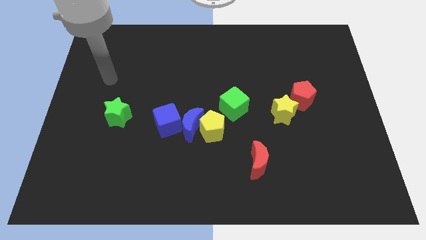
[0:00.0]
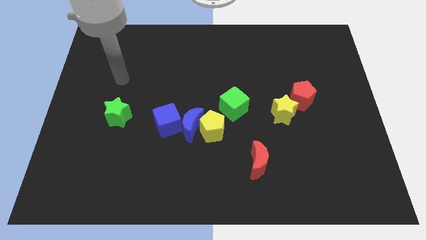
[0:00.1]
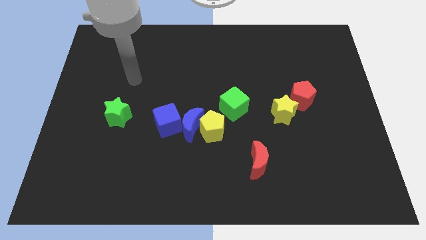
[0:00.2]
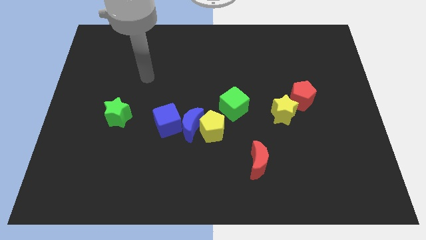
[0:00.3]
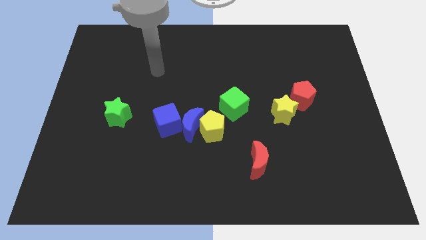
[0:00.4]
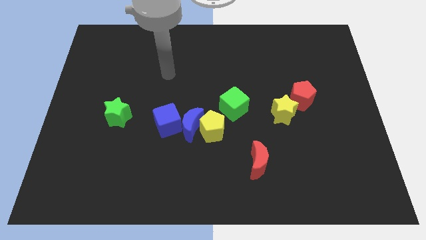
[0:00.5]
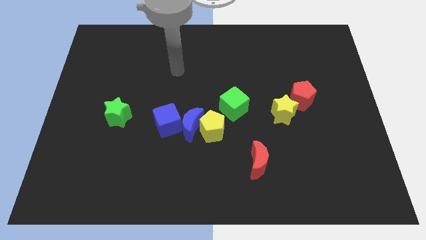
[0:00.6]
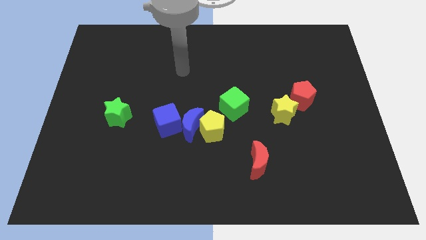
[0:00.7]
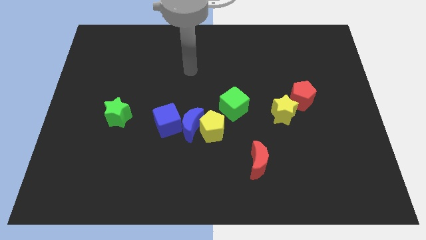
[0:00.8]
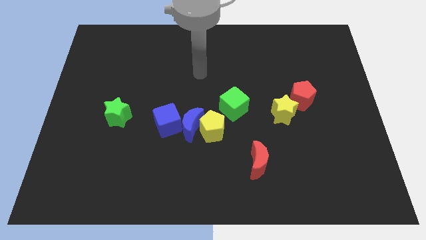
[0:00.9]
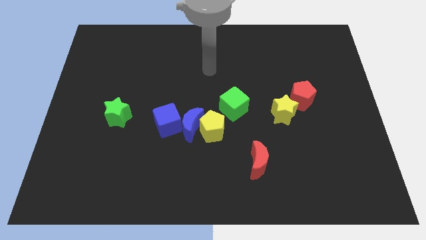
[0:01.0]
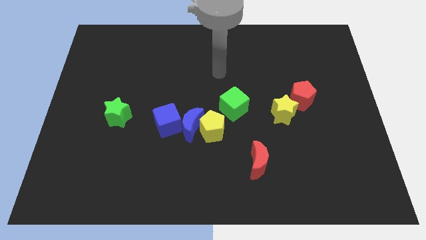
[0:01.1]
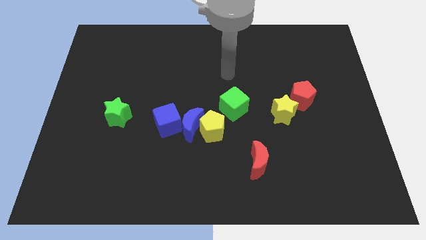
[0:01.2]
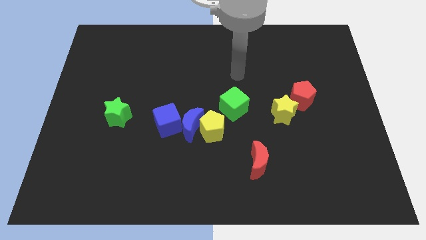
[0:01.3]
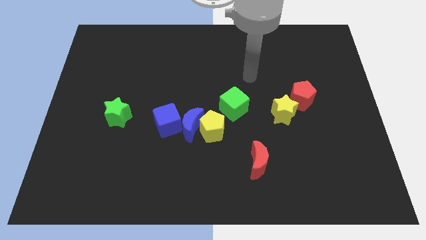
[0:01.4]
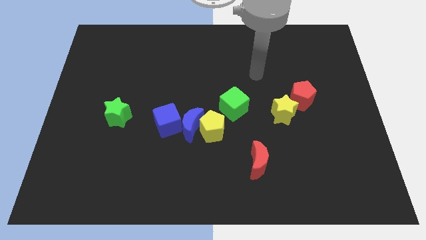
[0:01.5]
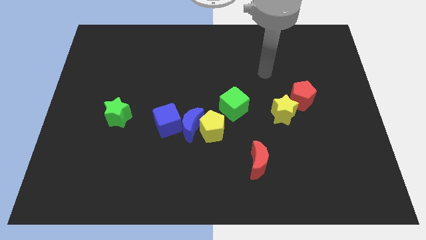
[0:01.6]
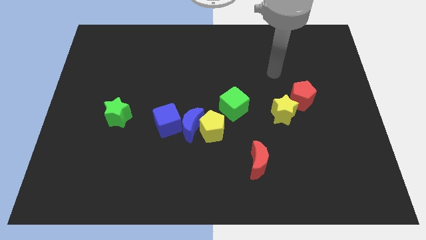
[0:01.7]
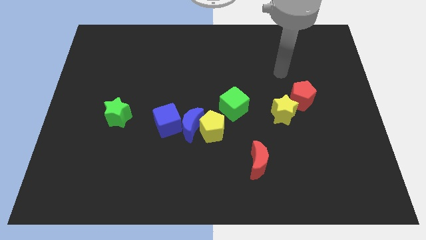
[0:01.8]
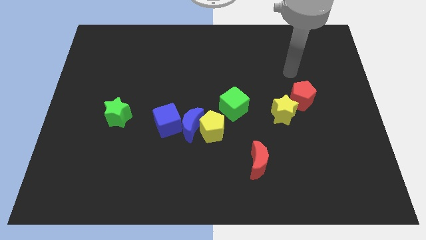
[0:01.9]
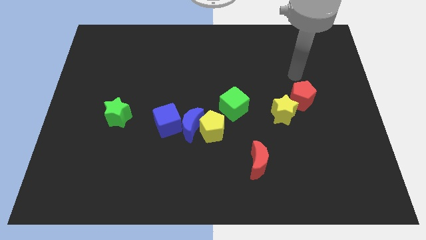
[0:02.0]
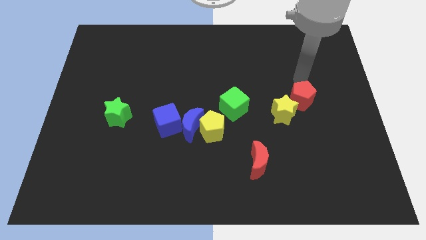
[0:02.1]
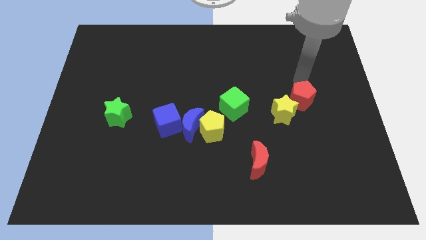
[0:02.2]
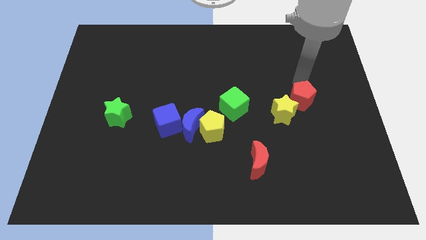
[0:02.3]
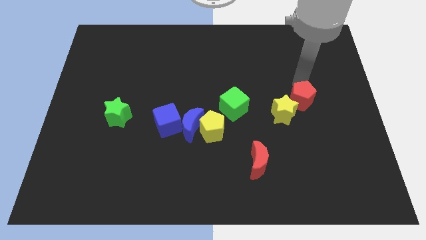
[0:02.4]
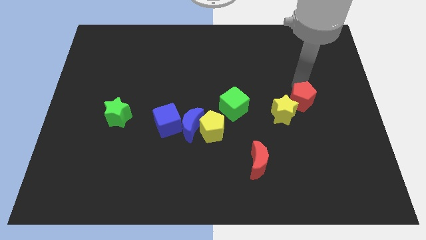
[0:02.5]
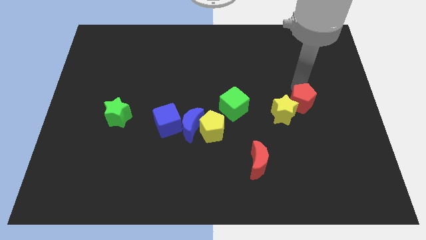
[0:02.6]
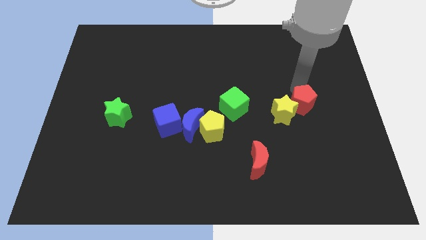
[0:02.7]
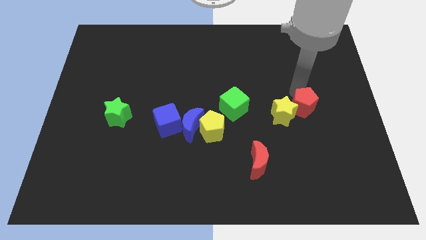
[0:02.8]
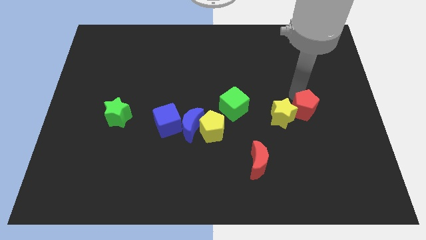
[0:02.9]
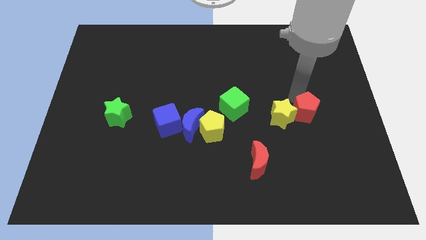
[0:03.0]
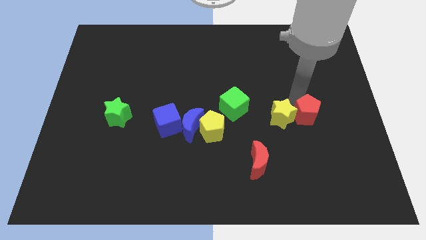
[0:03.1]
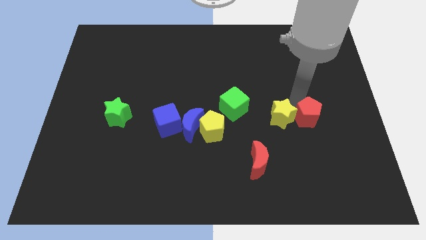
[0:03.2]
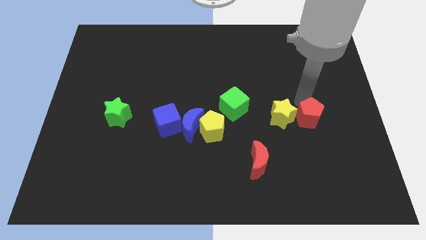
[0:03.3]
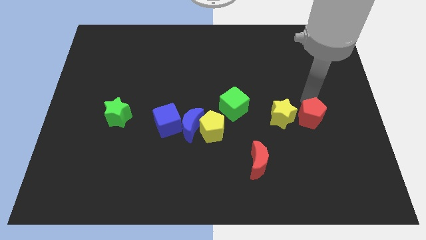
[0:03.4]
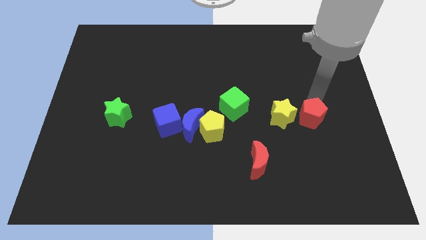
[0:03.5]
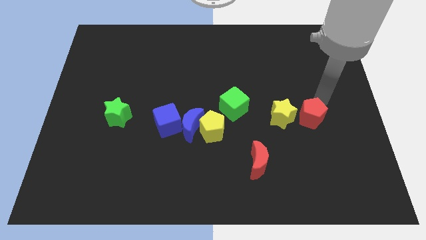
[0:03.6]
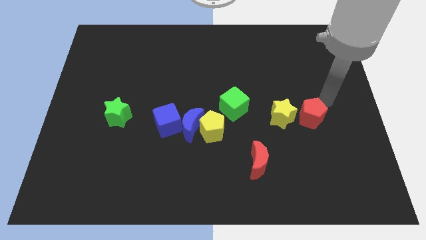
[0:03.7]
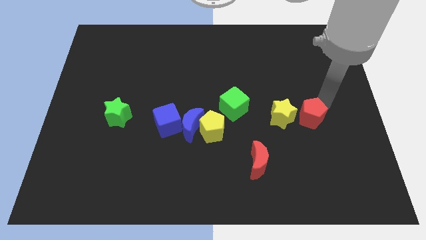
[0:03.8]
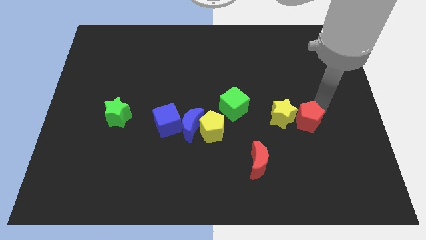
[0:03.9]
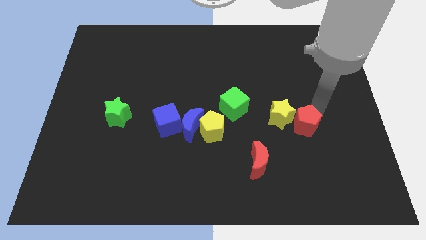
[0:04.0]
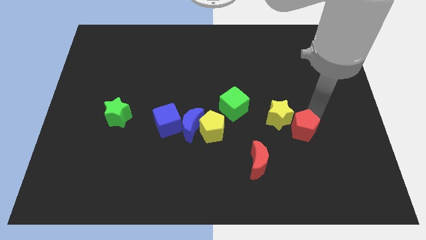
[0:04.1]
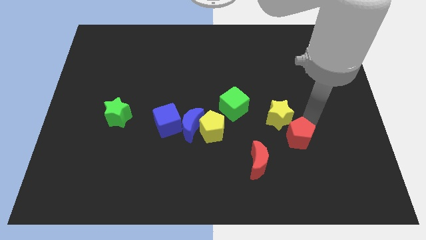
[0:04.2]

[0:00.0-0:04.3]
put the red pentagon to the bottom side of the yellow star

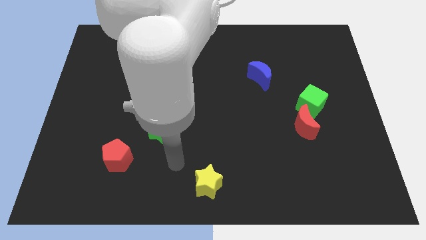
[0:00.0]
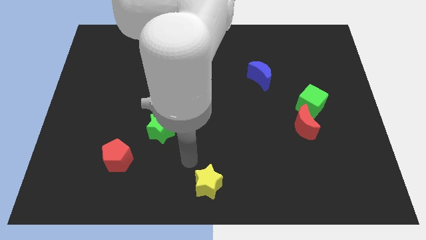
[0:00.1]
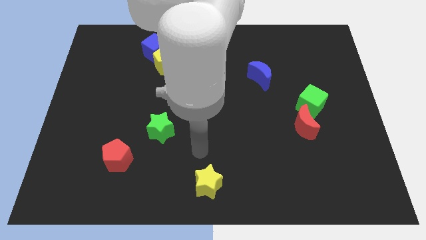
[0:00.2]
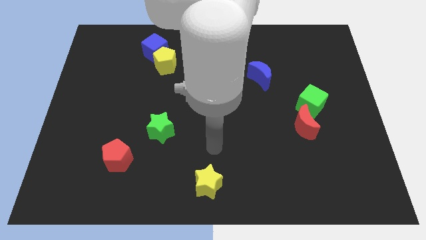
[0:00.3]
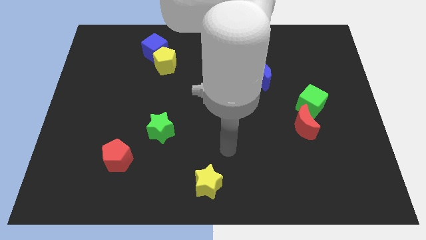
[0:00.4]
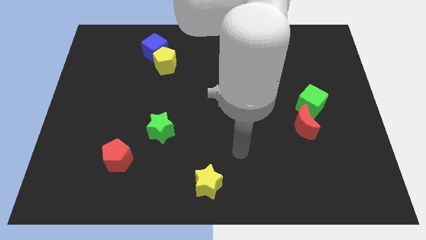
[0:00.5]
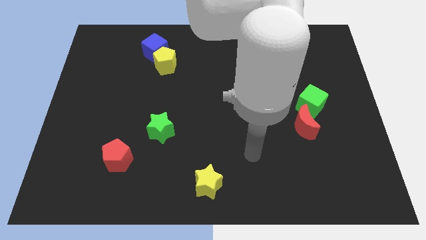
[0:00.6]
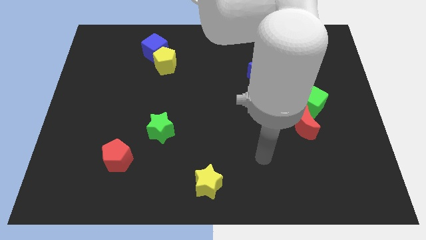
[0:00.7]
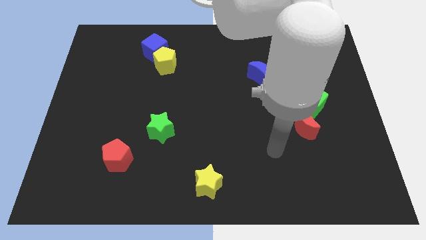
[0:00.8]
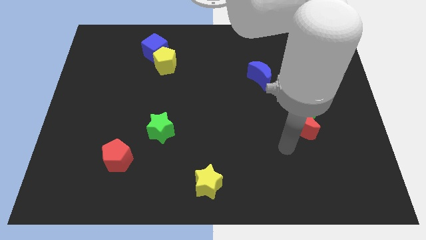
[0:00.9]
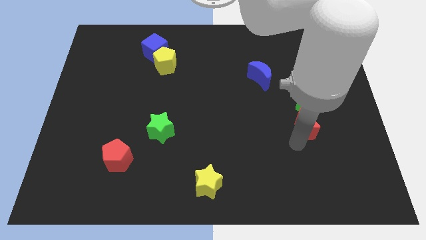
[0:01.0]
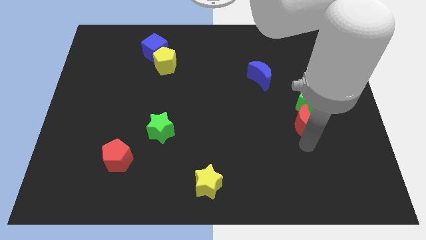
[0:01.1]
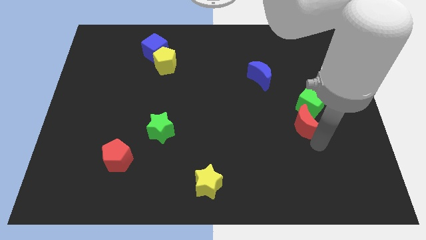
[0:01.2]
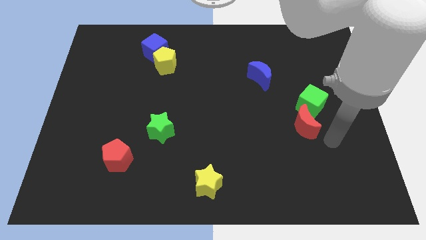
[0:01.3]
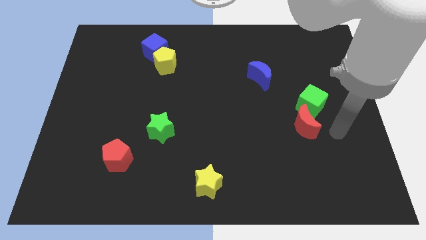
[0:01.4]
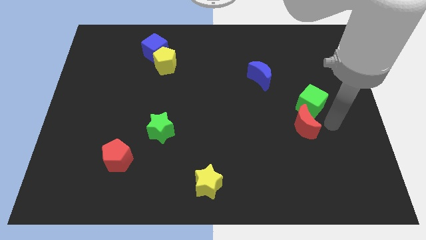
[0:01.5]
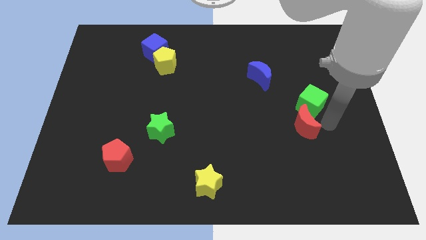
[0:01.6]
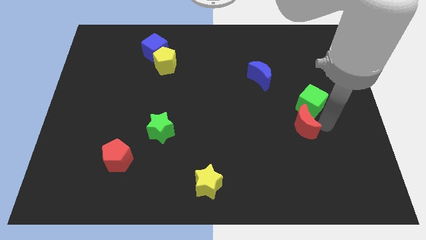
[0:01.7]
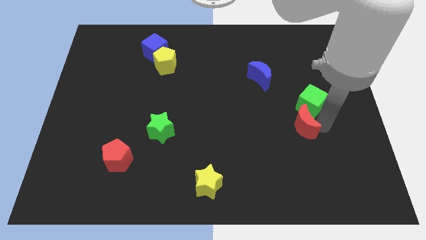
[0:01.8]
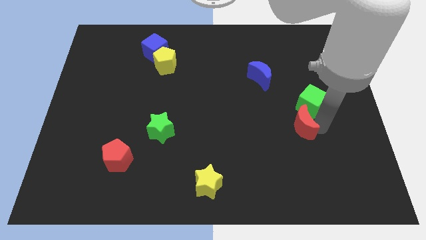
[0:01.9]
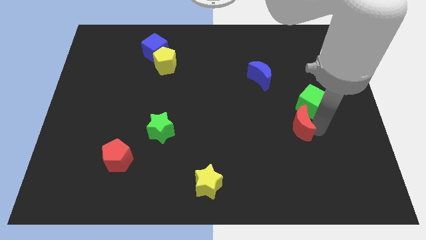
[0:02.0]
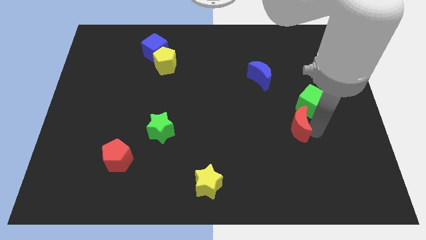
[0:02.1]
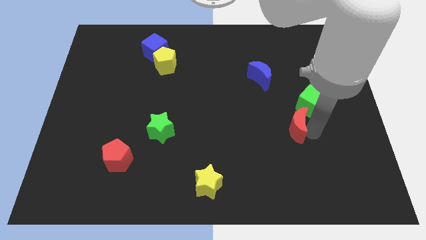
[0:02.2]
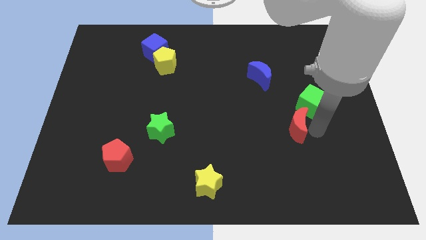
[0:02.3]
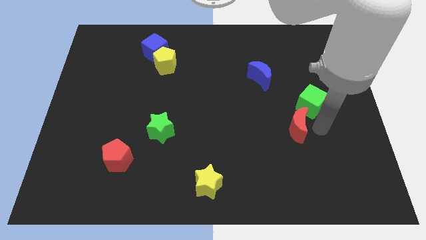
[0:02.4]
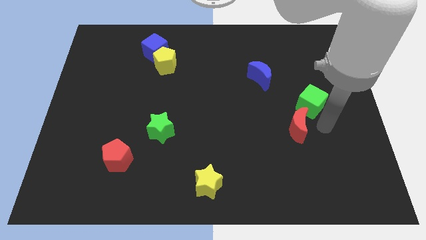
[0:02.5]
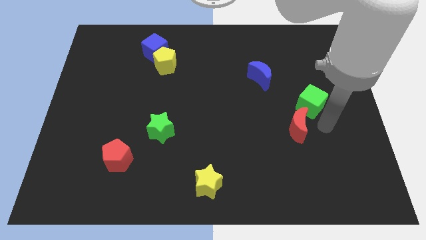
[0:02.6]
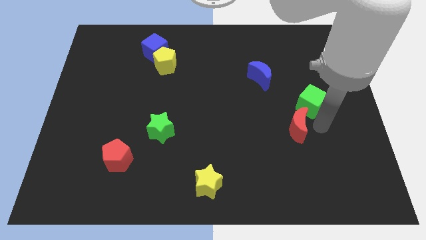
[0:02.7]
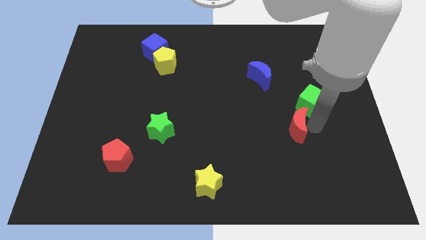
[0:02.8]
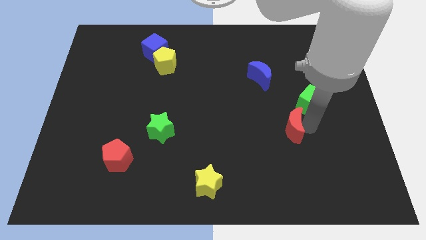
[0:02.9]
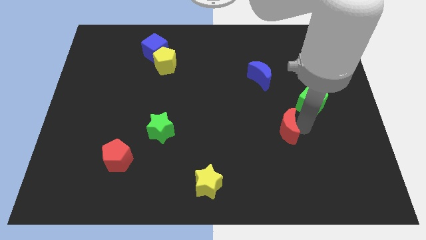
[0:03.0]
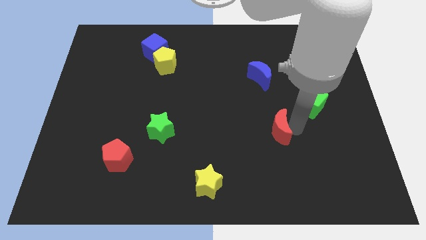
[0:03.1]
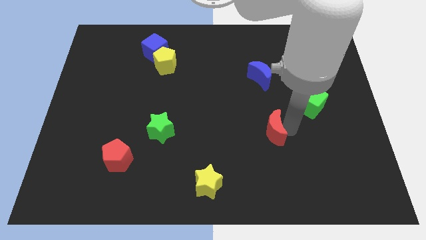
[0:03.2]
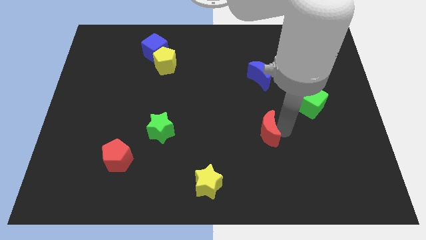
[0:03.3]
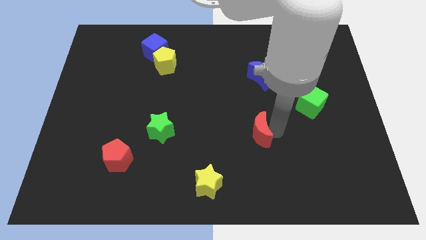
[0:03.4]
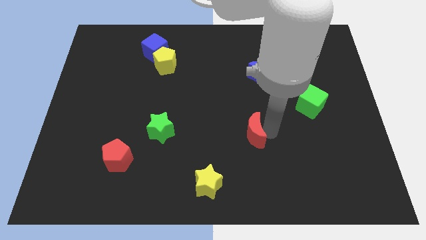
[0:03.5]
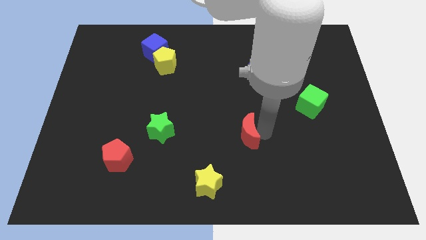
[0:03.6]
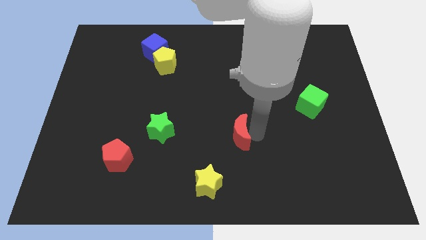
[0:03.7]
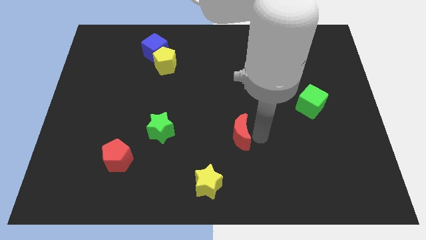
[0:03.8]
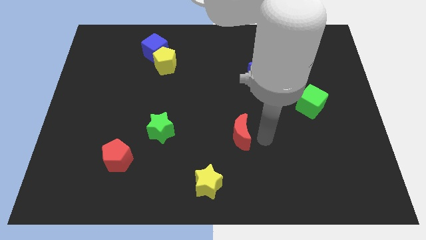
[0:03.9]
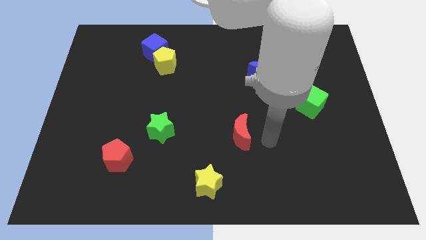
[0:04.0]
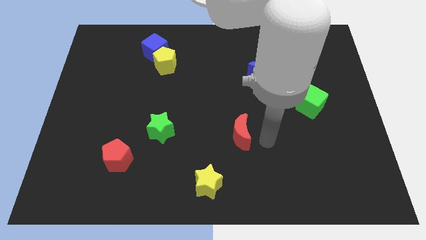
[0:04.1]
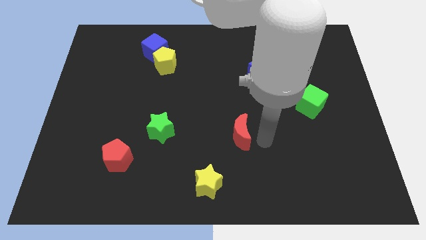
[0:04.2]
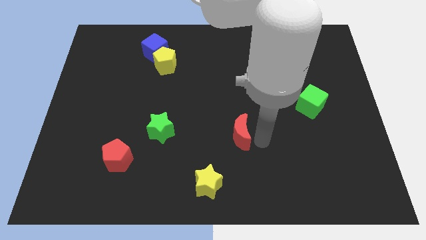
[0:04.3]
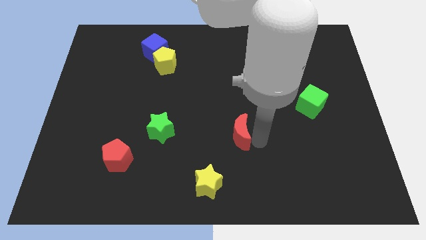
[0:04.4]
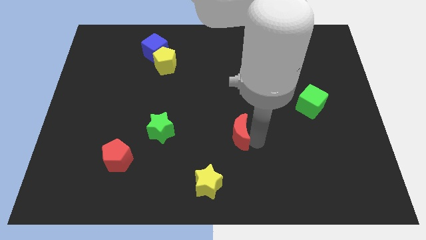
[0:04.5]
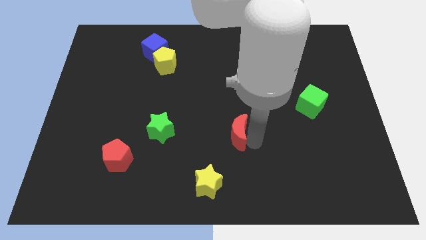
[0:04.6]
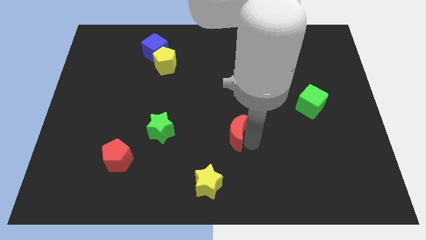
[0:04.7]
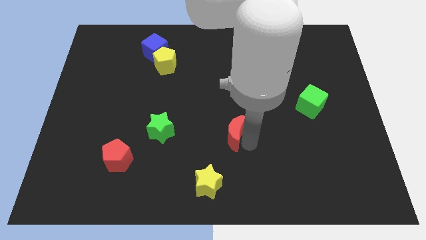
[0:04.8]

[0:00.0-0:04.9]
put the red moon to the right side of the green star
